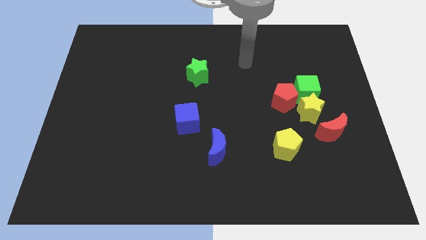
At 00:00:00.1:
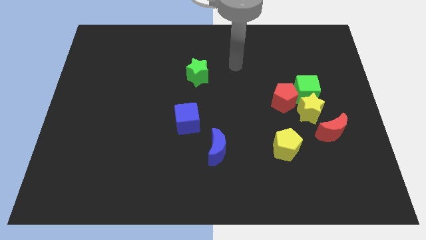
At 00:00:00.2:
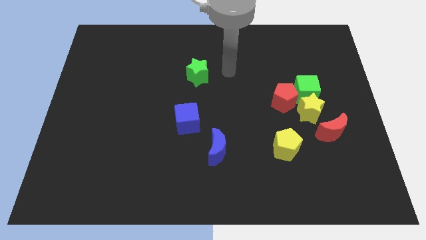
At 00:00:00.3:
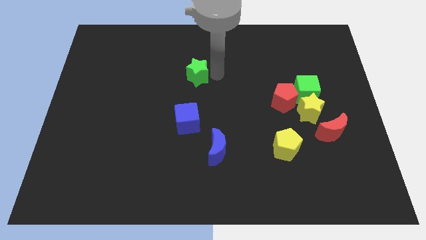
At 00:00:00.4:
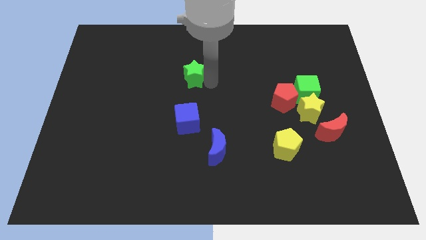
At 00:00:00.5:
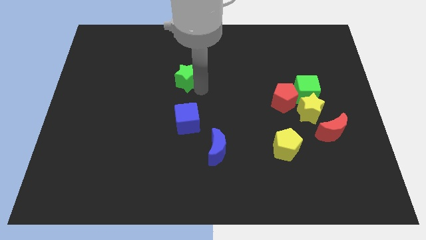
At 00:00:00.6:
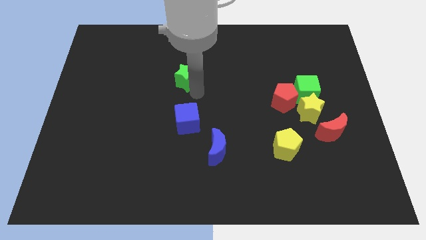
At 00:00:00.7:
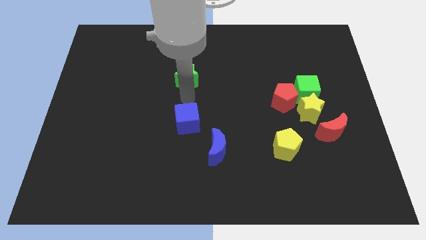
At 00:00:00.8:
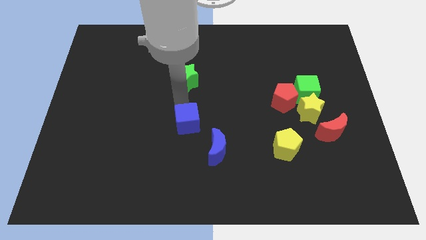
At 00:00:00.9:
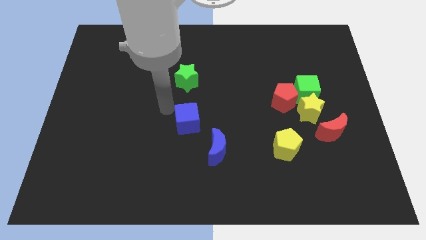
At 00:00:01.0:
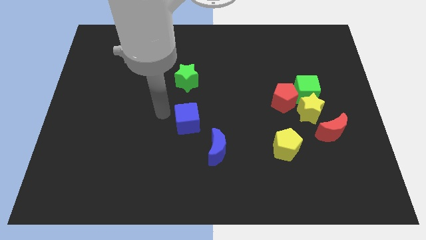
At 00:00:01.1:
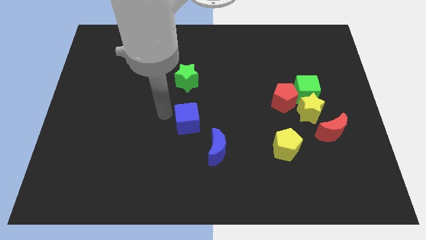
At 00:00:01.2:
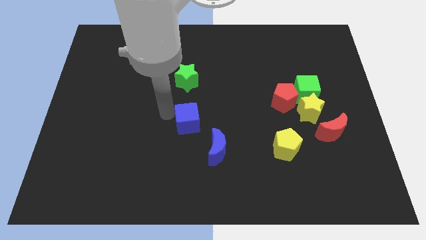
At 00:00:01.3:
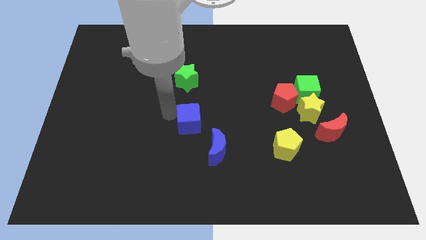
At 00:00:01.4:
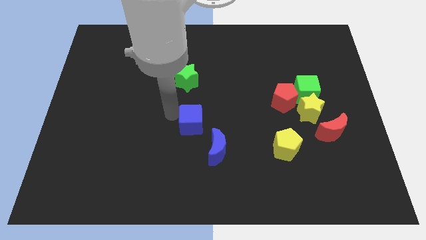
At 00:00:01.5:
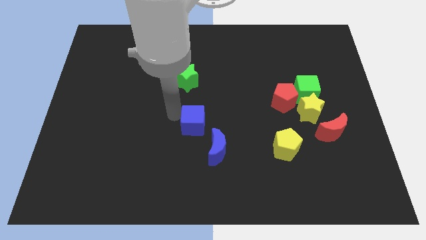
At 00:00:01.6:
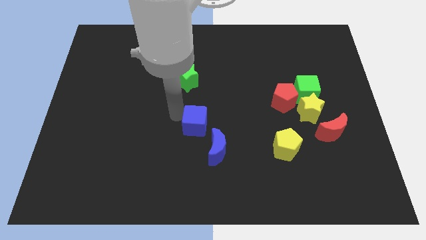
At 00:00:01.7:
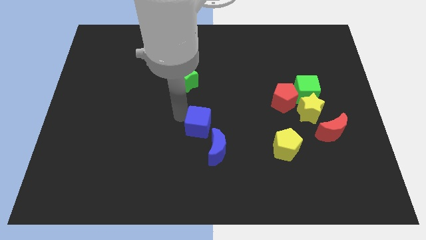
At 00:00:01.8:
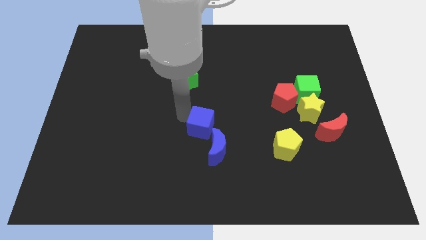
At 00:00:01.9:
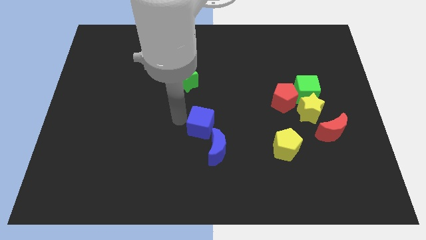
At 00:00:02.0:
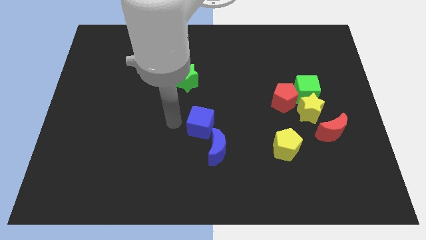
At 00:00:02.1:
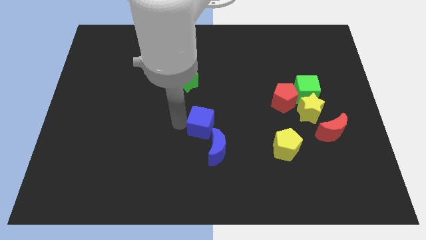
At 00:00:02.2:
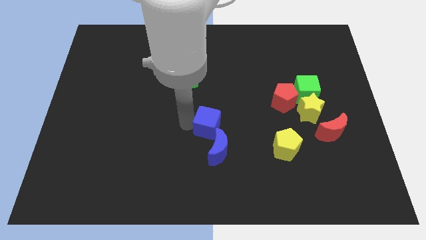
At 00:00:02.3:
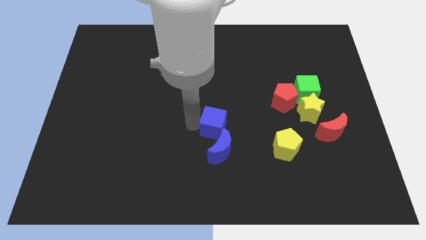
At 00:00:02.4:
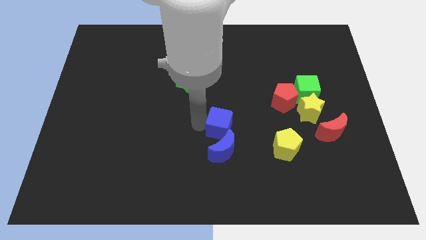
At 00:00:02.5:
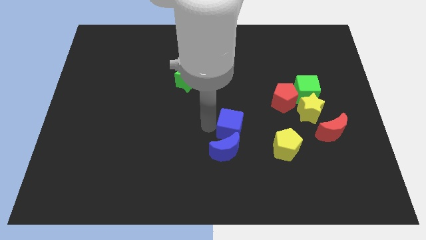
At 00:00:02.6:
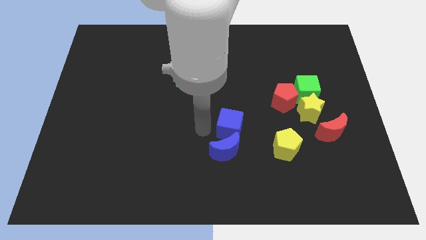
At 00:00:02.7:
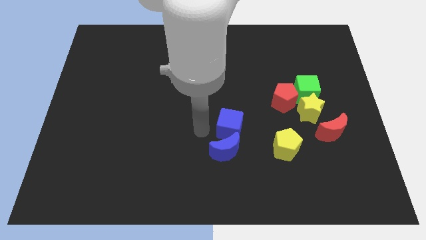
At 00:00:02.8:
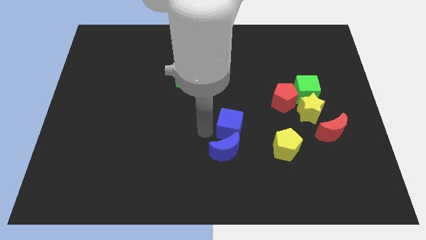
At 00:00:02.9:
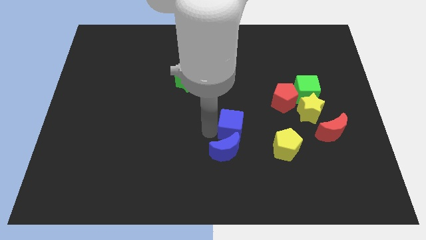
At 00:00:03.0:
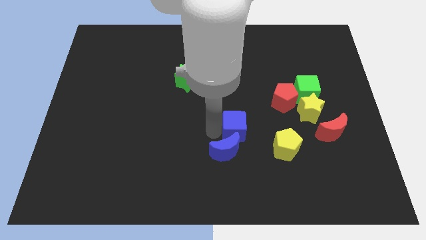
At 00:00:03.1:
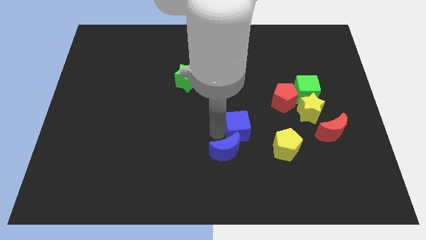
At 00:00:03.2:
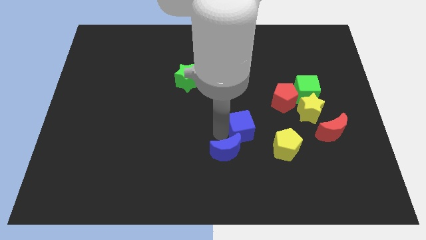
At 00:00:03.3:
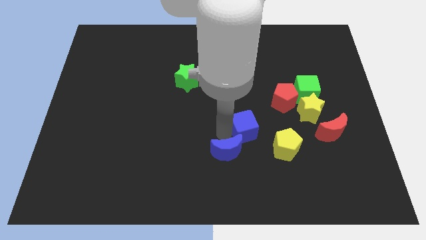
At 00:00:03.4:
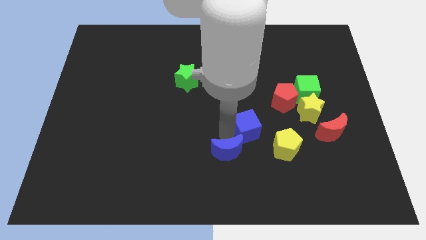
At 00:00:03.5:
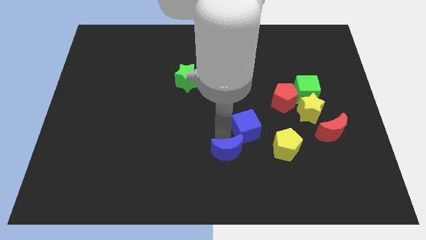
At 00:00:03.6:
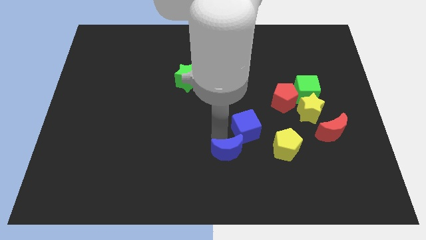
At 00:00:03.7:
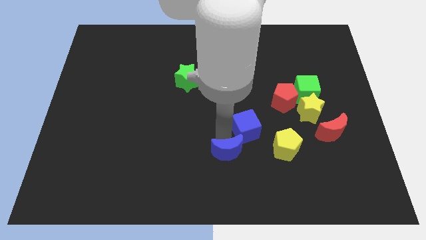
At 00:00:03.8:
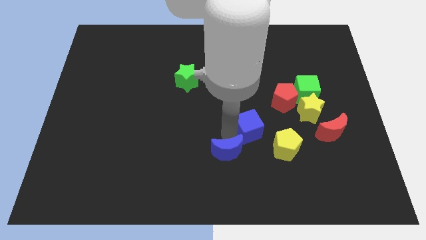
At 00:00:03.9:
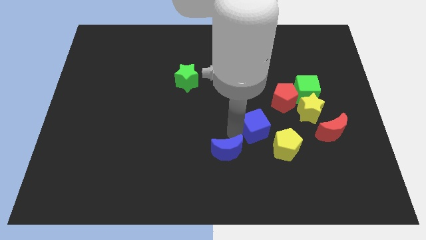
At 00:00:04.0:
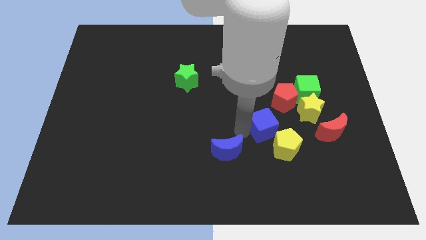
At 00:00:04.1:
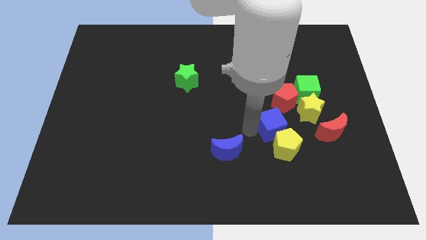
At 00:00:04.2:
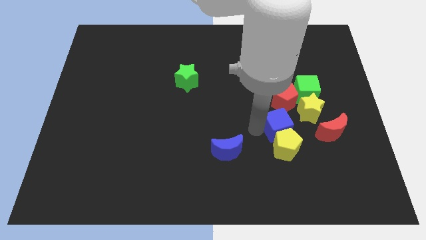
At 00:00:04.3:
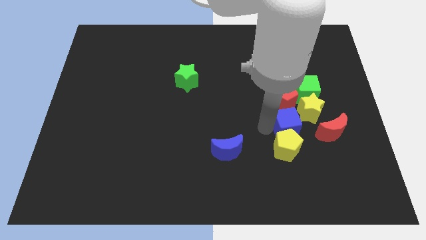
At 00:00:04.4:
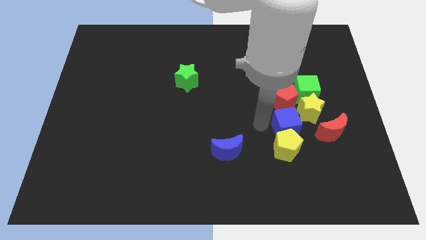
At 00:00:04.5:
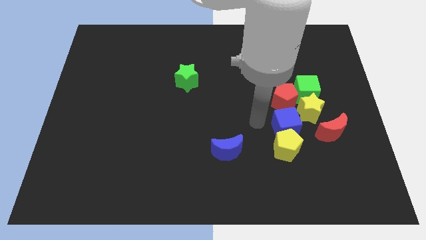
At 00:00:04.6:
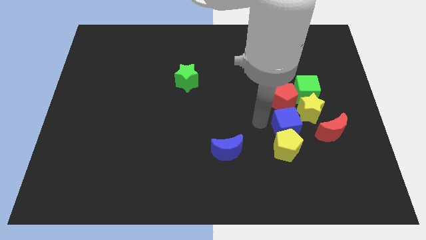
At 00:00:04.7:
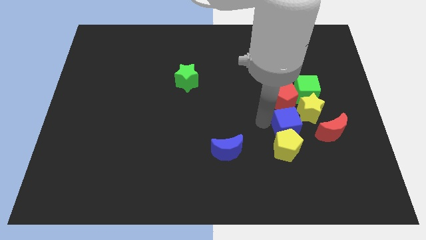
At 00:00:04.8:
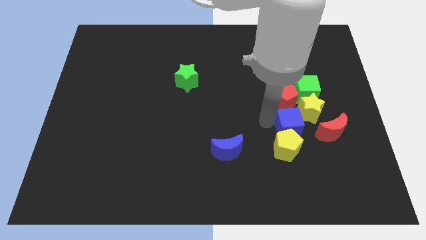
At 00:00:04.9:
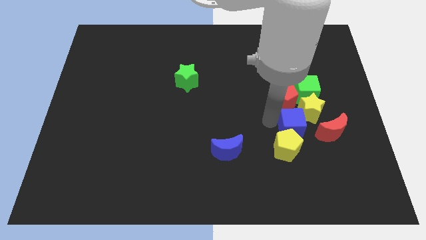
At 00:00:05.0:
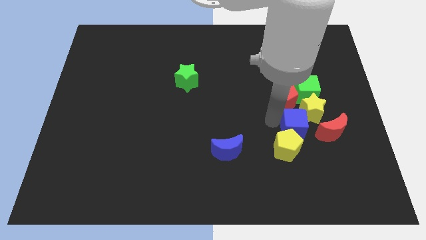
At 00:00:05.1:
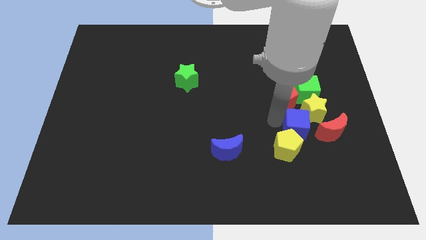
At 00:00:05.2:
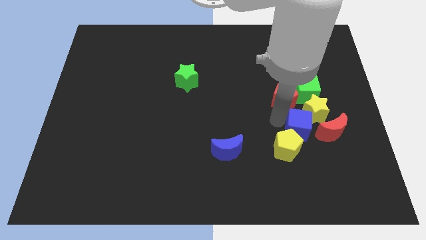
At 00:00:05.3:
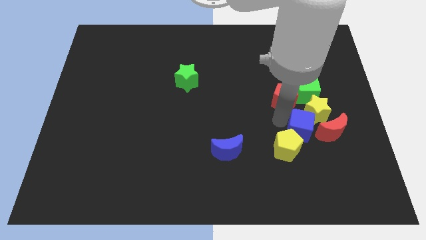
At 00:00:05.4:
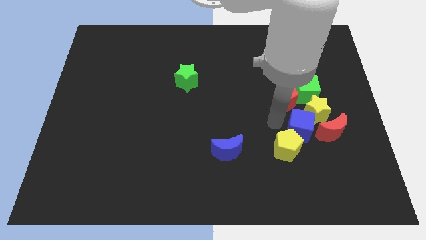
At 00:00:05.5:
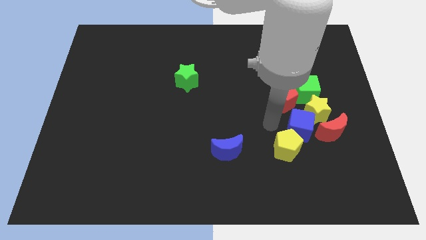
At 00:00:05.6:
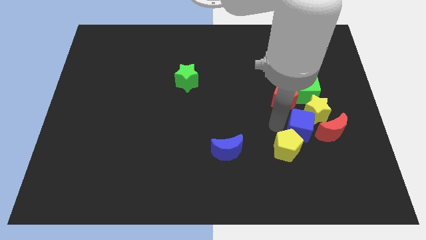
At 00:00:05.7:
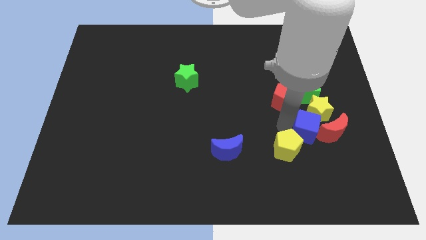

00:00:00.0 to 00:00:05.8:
move the blue cube towards the red moon

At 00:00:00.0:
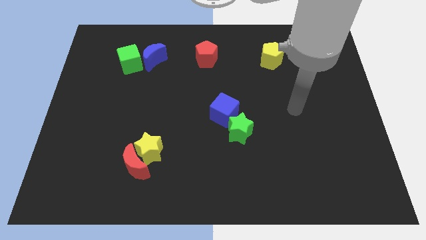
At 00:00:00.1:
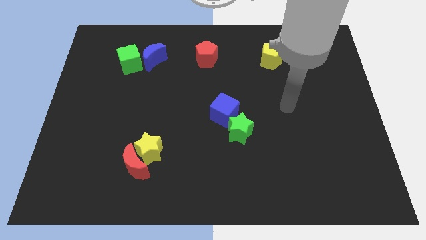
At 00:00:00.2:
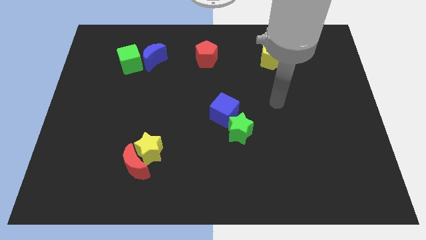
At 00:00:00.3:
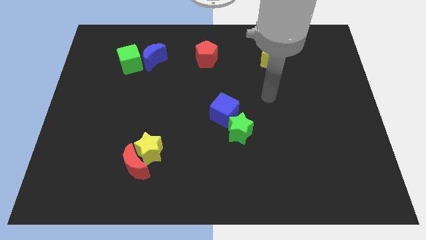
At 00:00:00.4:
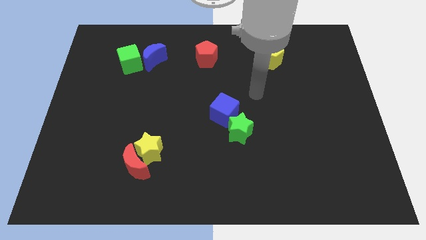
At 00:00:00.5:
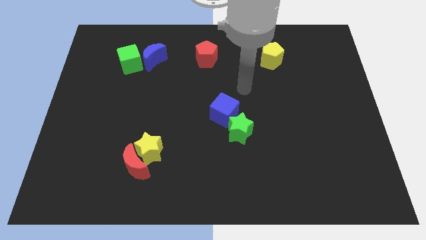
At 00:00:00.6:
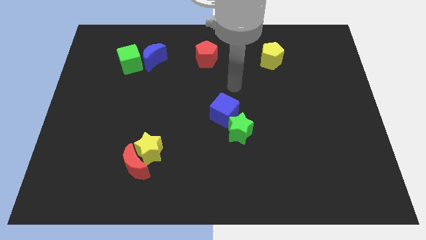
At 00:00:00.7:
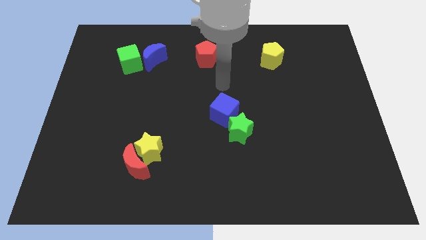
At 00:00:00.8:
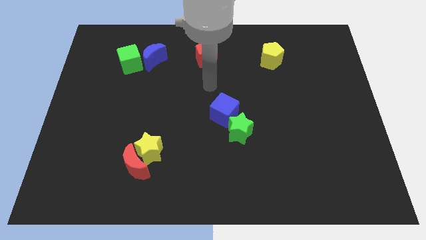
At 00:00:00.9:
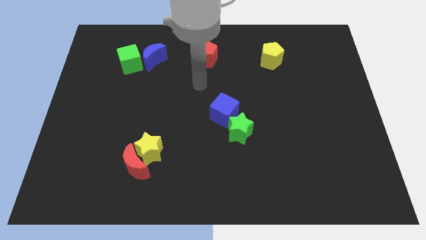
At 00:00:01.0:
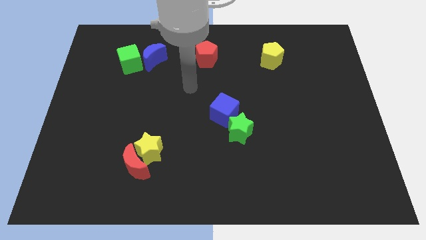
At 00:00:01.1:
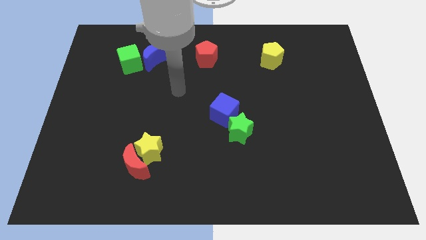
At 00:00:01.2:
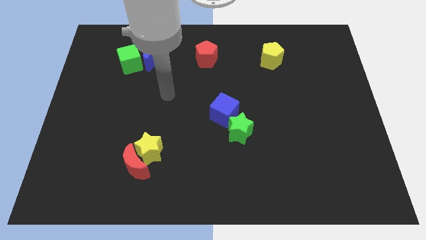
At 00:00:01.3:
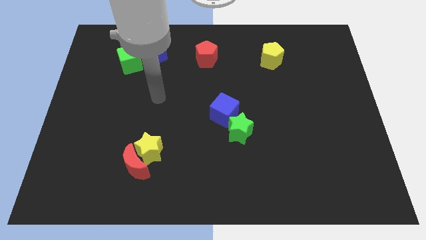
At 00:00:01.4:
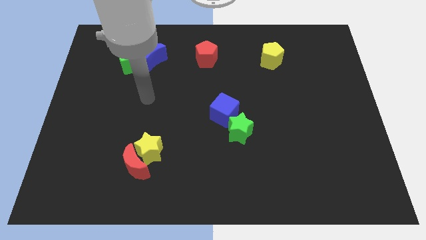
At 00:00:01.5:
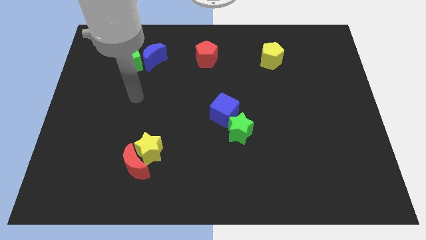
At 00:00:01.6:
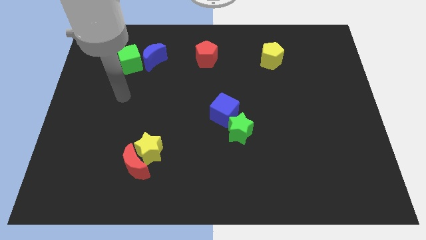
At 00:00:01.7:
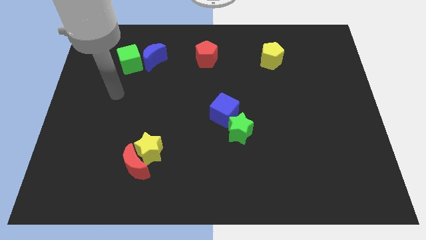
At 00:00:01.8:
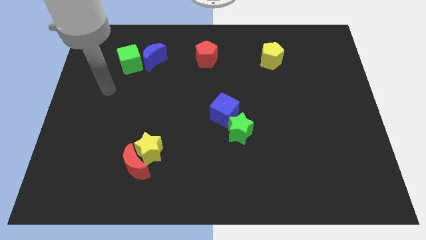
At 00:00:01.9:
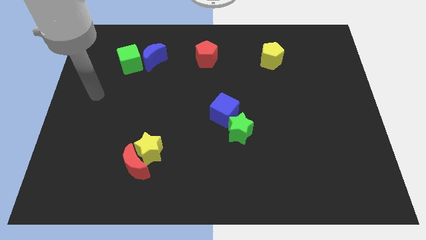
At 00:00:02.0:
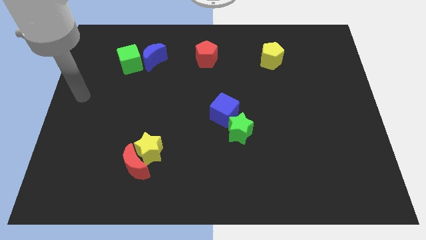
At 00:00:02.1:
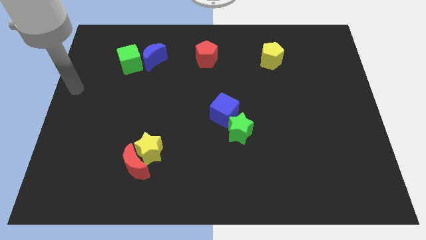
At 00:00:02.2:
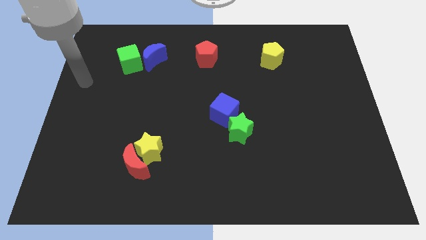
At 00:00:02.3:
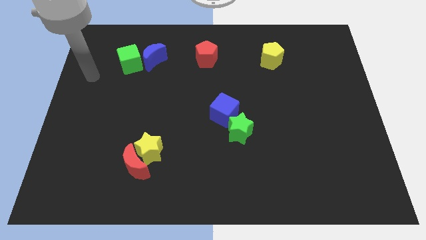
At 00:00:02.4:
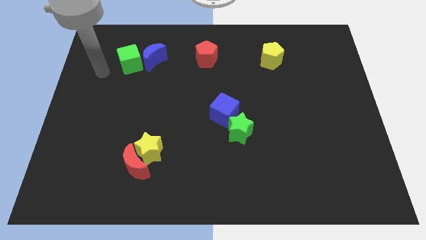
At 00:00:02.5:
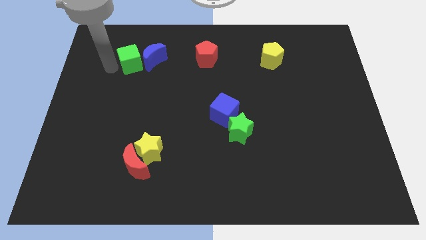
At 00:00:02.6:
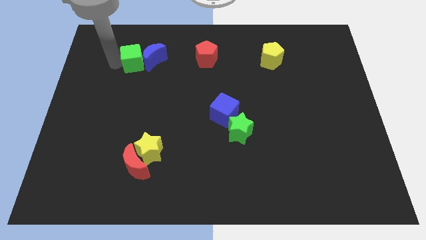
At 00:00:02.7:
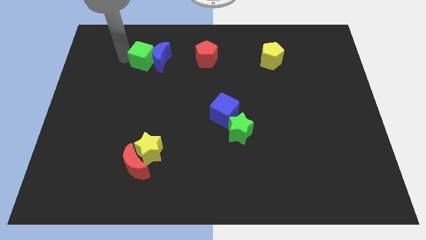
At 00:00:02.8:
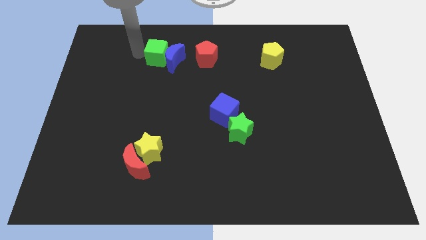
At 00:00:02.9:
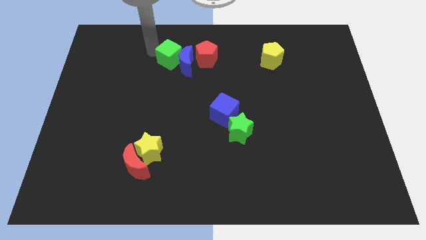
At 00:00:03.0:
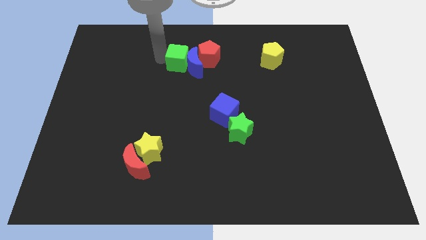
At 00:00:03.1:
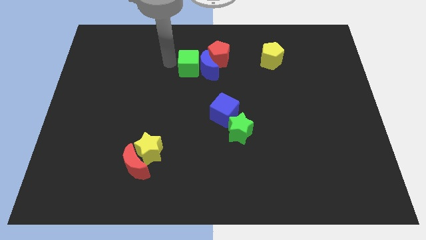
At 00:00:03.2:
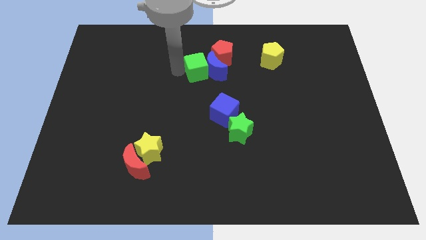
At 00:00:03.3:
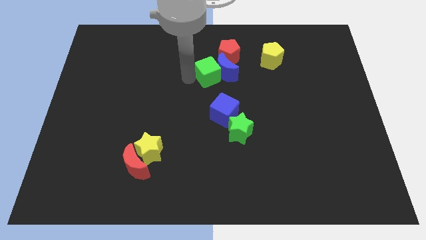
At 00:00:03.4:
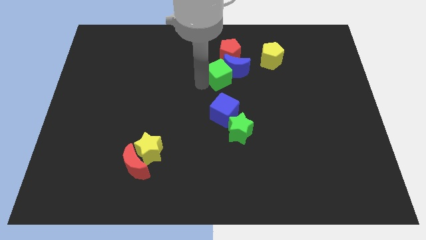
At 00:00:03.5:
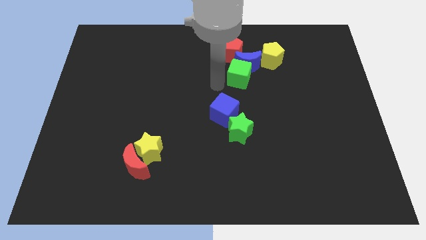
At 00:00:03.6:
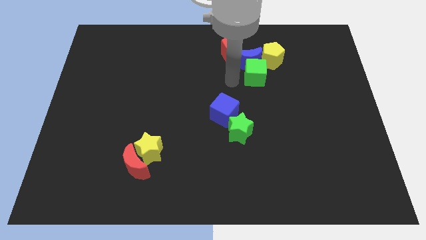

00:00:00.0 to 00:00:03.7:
move the blue moon towards the yellow pentagon
